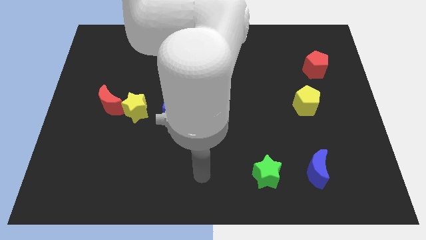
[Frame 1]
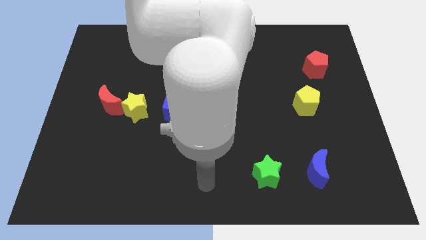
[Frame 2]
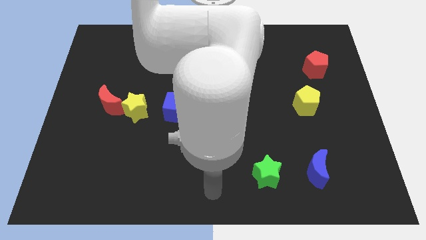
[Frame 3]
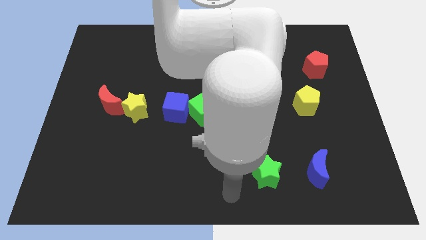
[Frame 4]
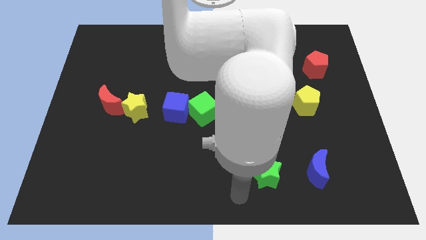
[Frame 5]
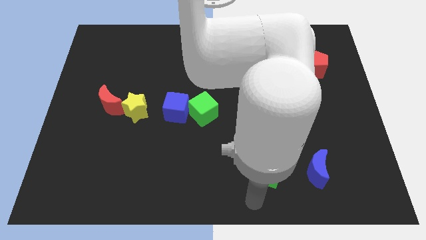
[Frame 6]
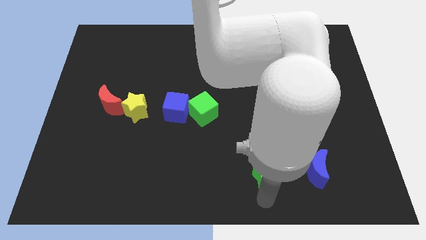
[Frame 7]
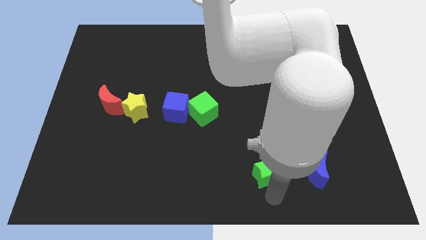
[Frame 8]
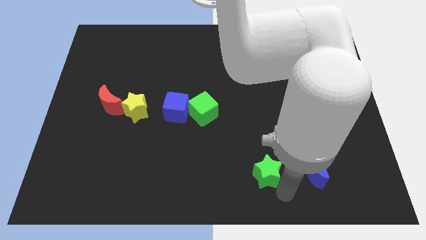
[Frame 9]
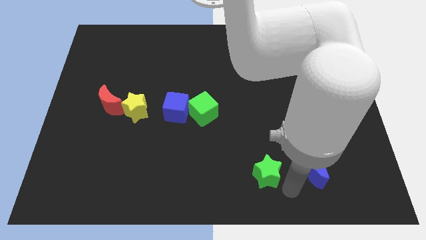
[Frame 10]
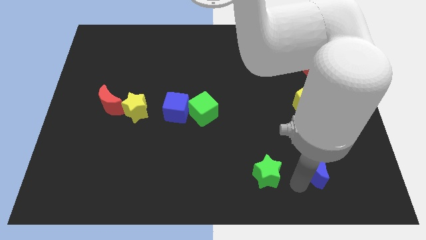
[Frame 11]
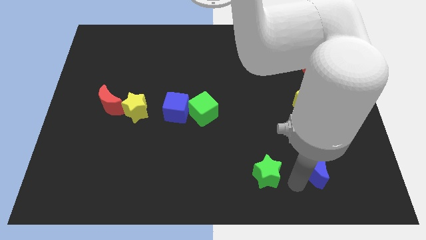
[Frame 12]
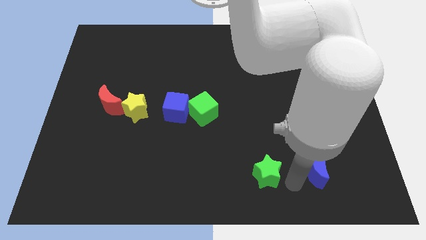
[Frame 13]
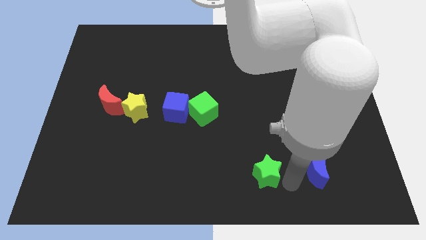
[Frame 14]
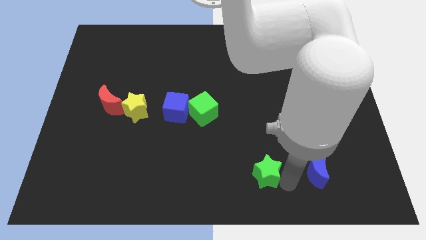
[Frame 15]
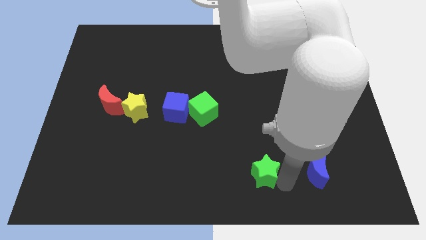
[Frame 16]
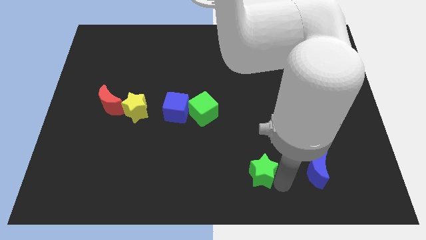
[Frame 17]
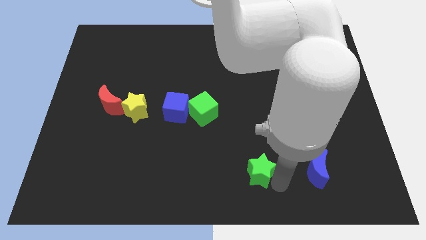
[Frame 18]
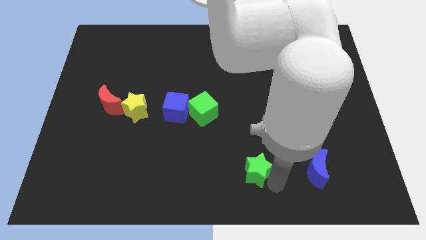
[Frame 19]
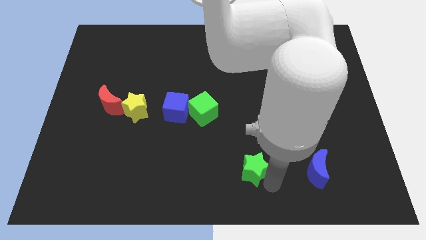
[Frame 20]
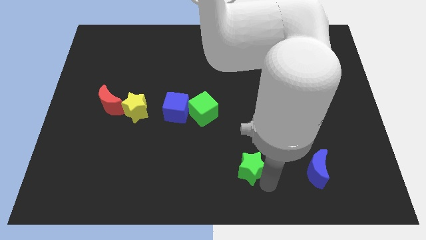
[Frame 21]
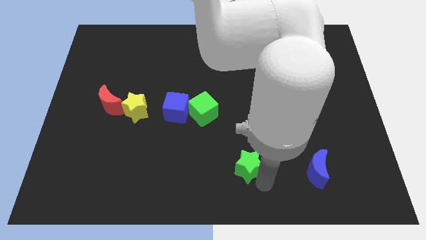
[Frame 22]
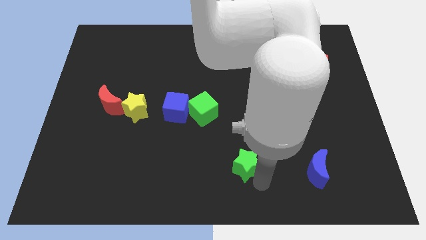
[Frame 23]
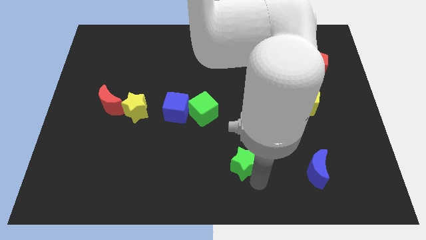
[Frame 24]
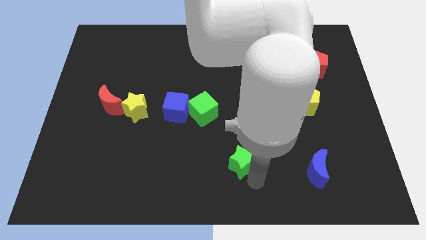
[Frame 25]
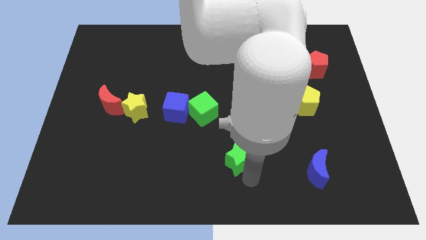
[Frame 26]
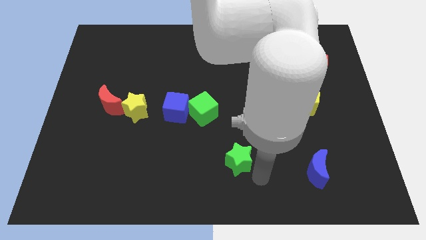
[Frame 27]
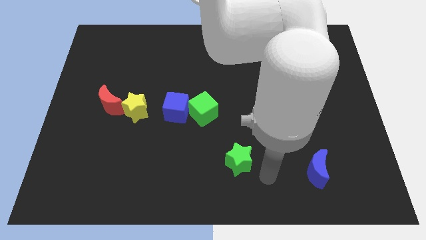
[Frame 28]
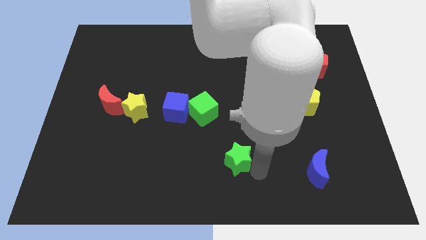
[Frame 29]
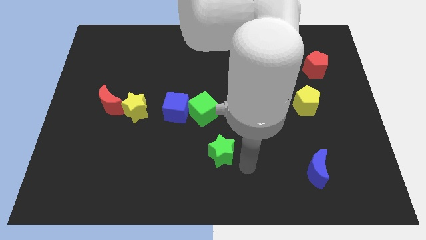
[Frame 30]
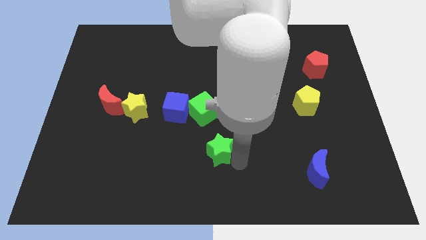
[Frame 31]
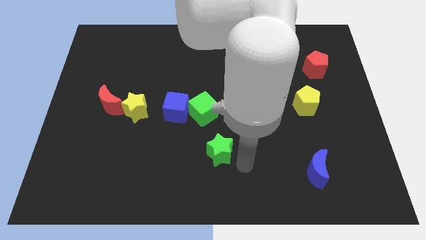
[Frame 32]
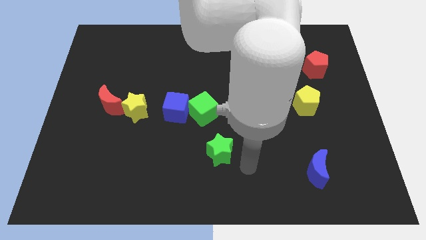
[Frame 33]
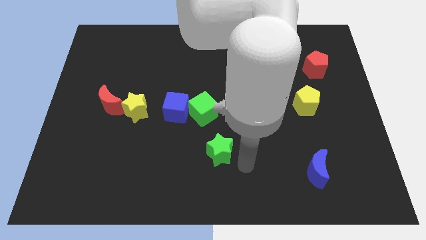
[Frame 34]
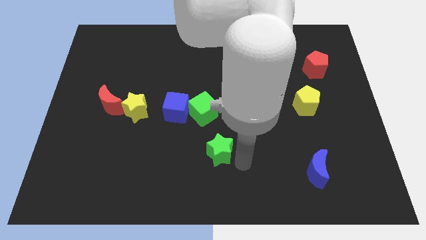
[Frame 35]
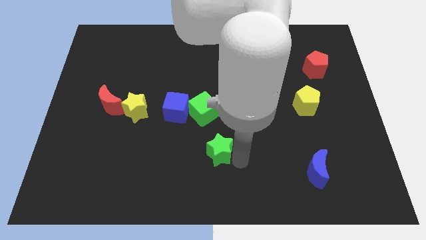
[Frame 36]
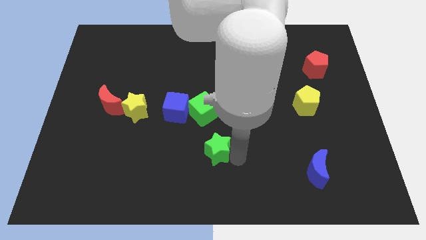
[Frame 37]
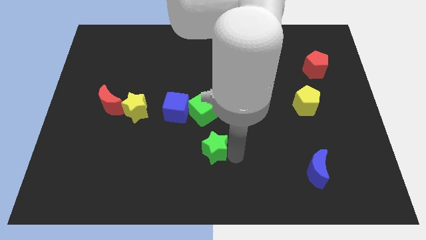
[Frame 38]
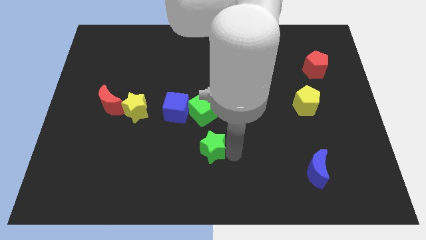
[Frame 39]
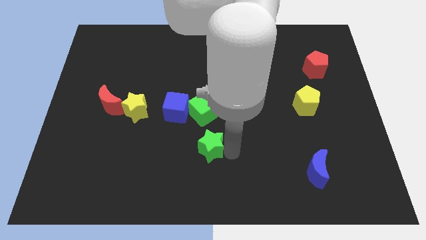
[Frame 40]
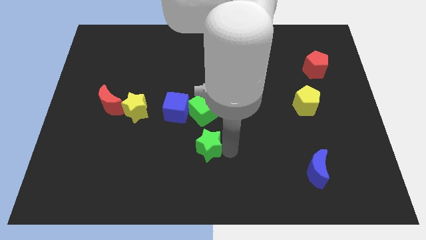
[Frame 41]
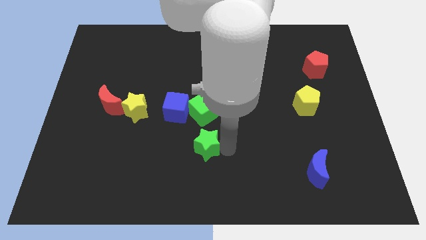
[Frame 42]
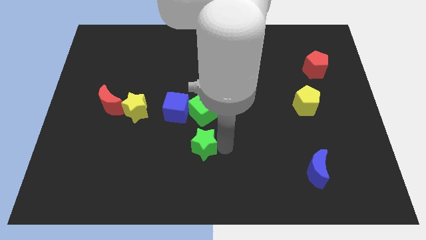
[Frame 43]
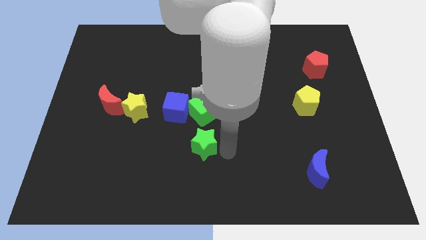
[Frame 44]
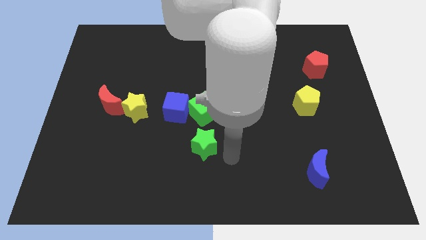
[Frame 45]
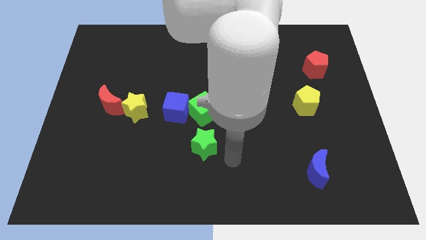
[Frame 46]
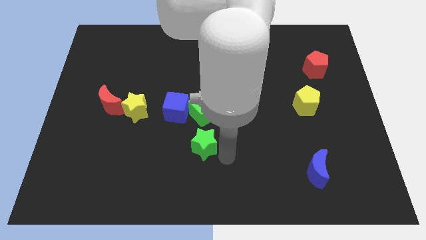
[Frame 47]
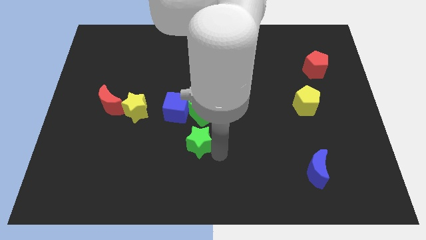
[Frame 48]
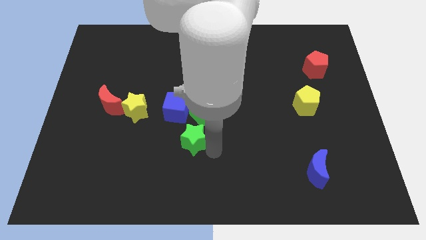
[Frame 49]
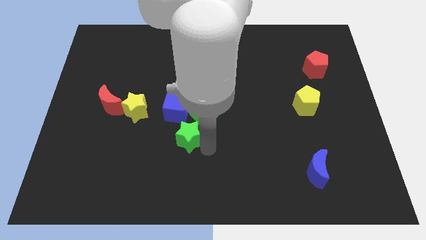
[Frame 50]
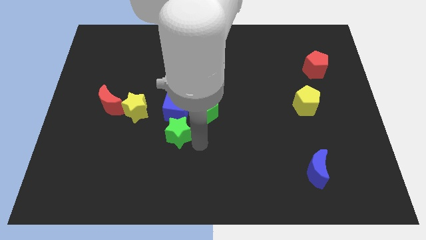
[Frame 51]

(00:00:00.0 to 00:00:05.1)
put the green star diagonally down and to the right of the yellow star

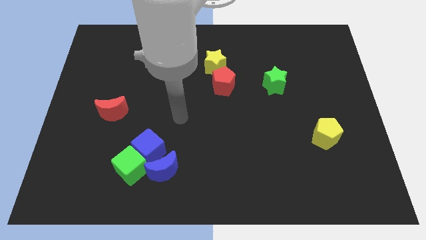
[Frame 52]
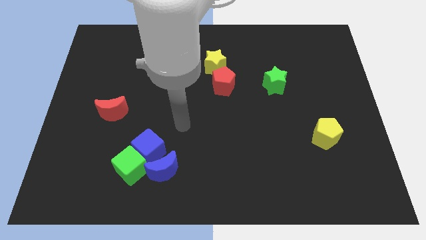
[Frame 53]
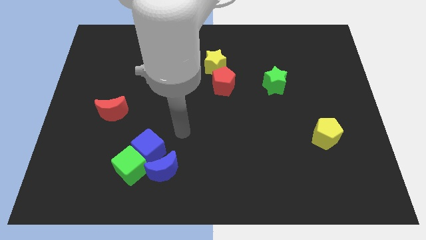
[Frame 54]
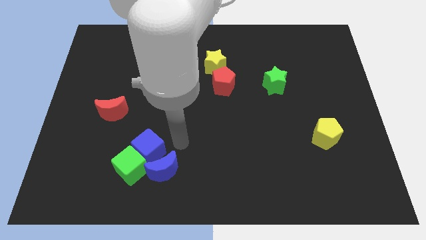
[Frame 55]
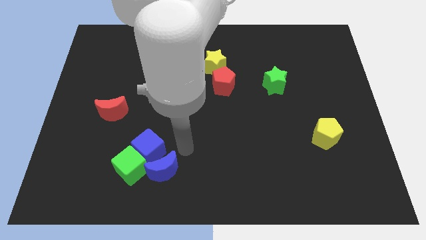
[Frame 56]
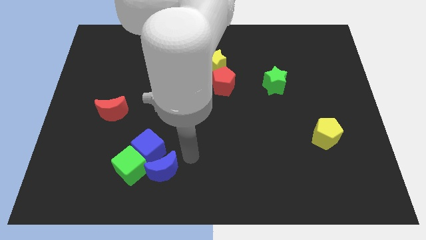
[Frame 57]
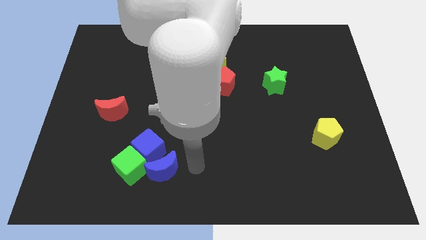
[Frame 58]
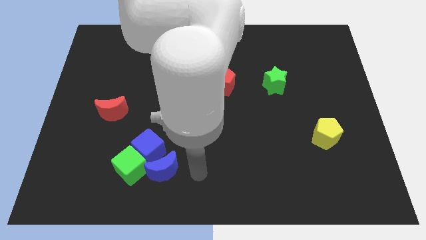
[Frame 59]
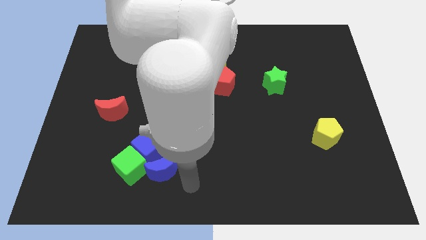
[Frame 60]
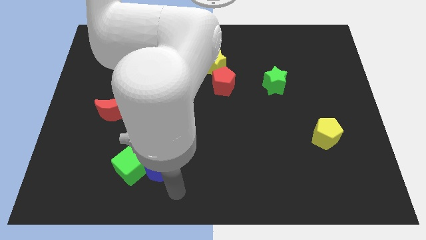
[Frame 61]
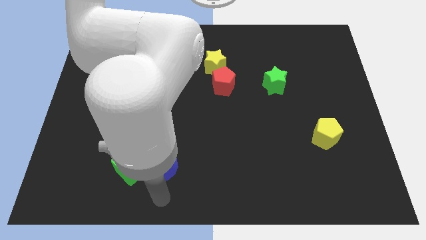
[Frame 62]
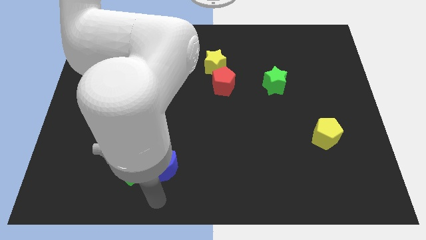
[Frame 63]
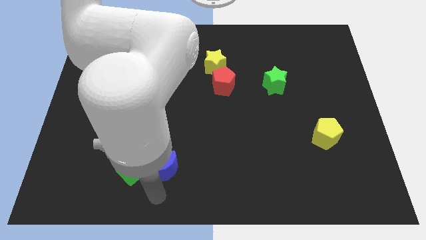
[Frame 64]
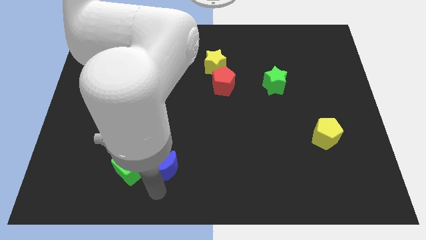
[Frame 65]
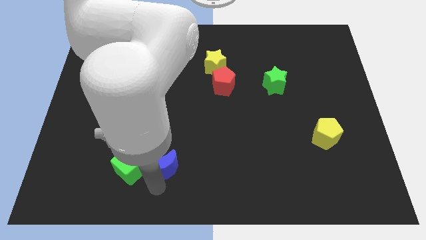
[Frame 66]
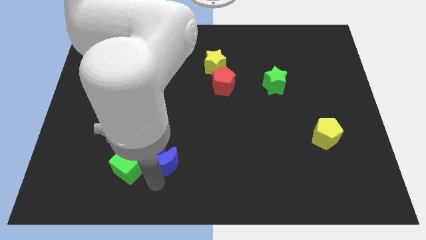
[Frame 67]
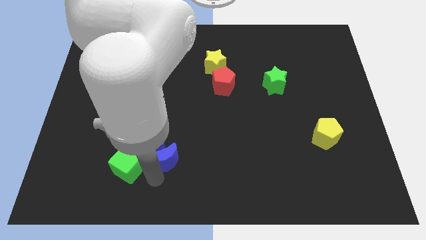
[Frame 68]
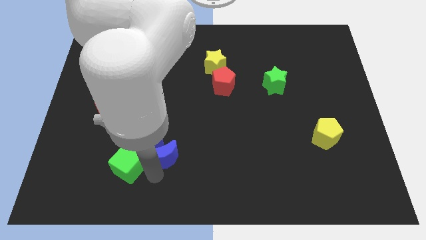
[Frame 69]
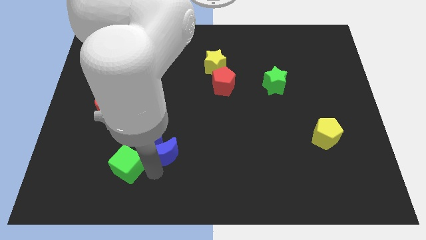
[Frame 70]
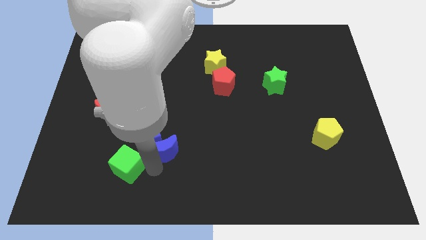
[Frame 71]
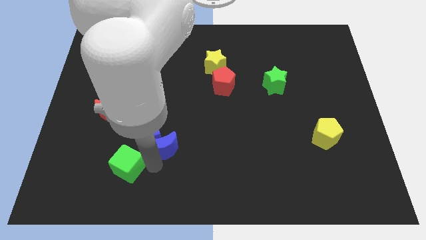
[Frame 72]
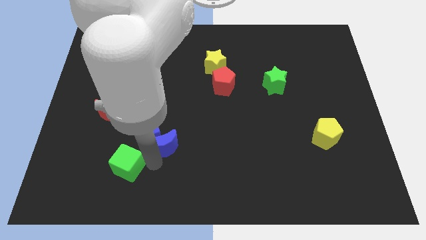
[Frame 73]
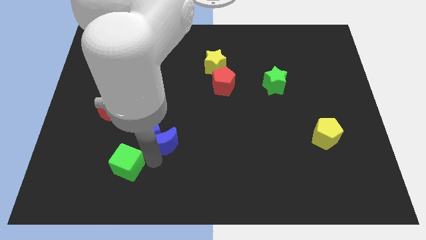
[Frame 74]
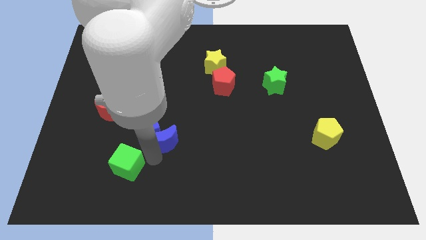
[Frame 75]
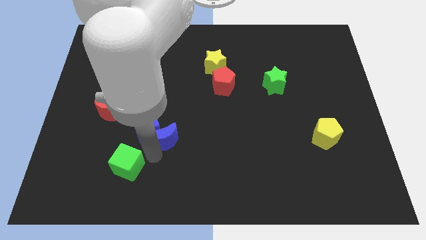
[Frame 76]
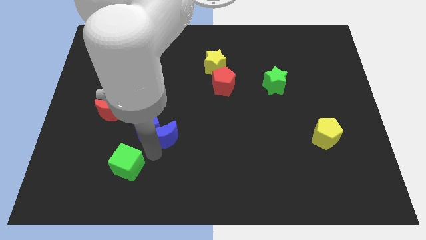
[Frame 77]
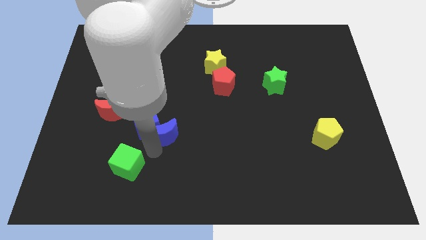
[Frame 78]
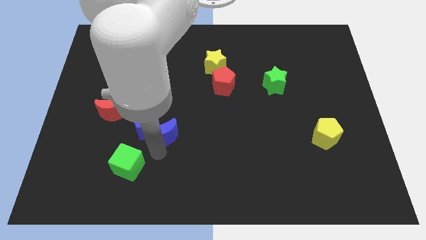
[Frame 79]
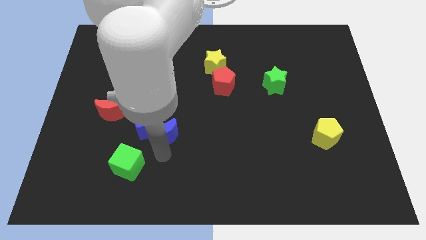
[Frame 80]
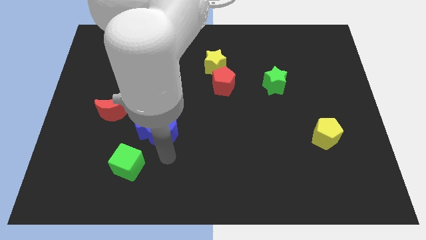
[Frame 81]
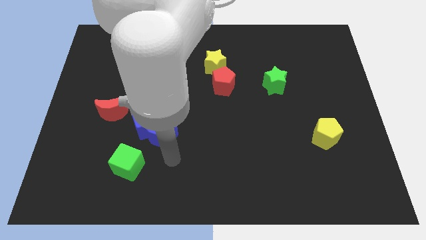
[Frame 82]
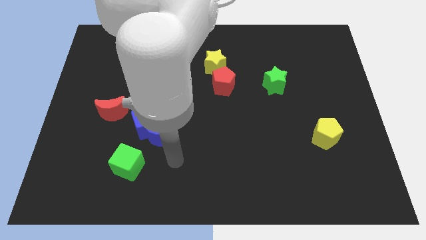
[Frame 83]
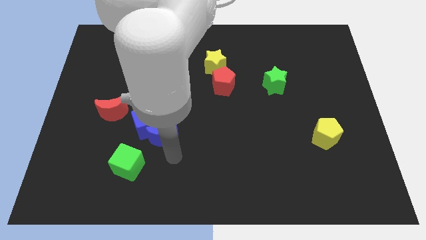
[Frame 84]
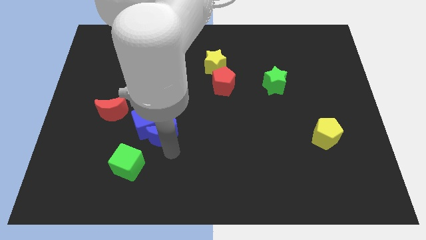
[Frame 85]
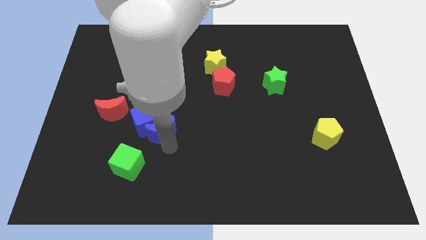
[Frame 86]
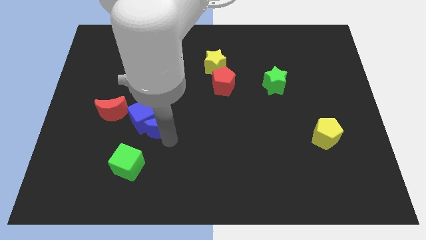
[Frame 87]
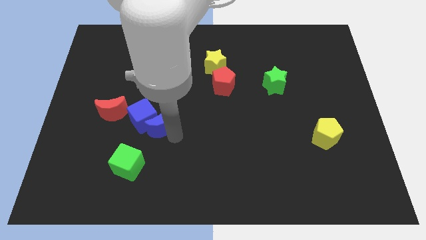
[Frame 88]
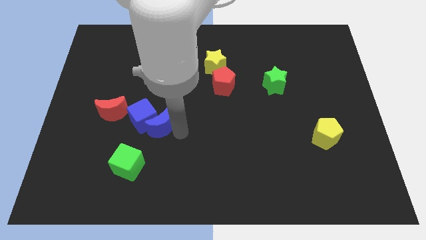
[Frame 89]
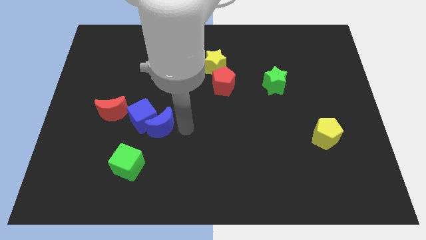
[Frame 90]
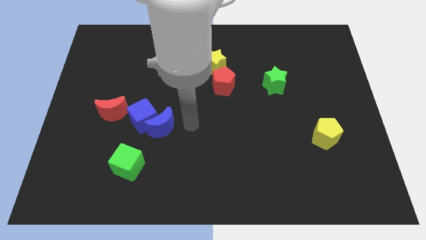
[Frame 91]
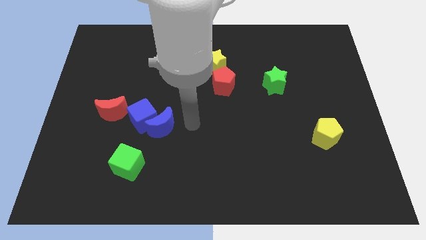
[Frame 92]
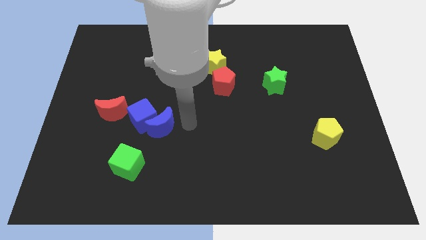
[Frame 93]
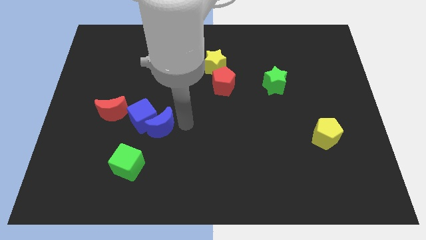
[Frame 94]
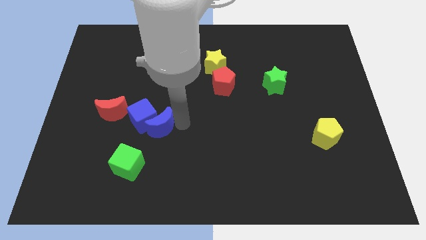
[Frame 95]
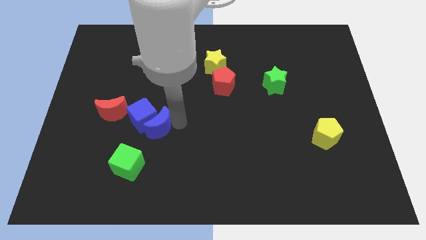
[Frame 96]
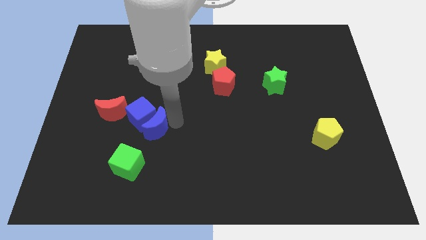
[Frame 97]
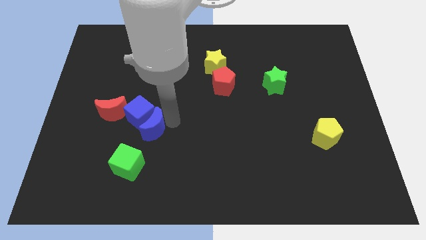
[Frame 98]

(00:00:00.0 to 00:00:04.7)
move the blue moon diagonally down and to the right of the red moon
